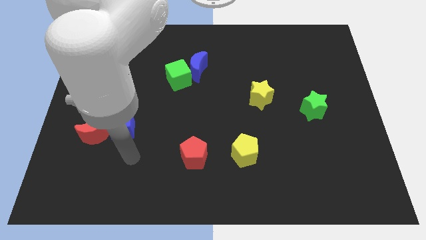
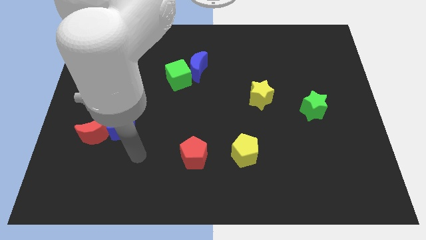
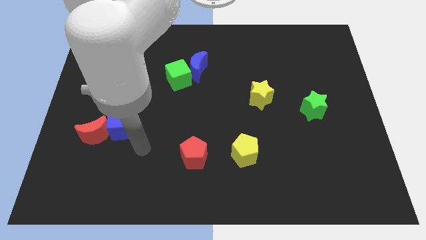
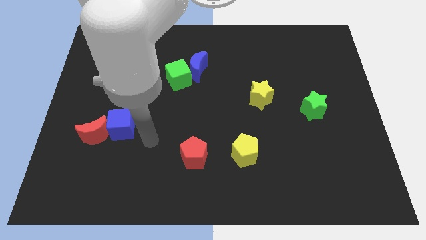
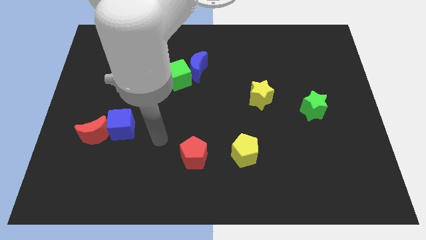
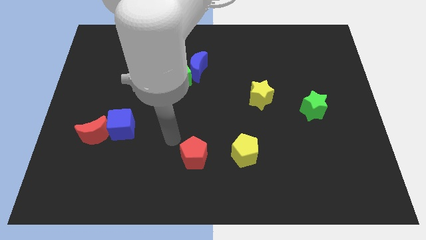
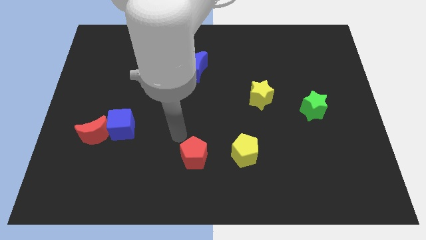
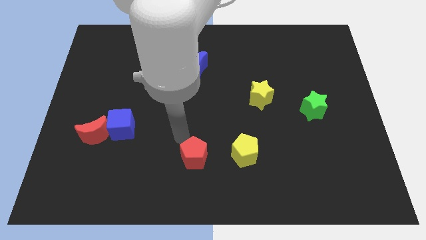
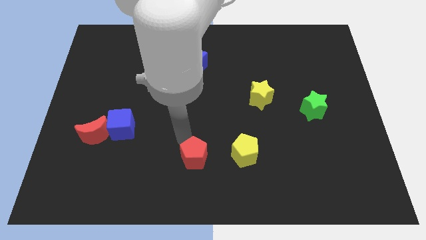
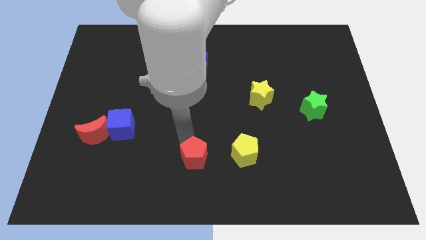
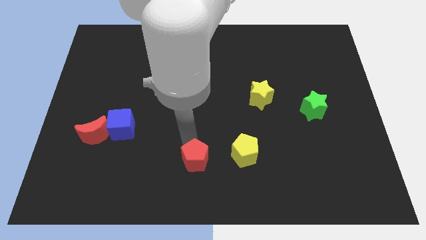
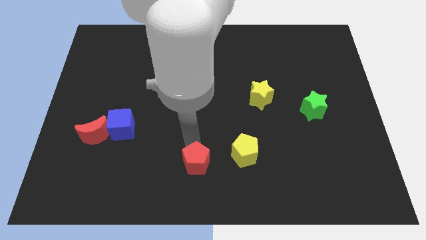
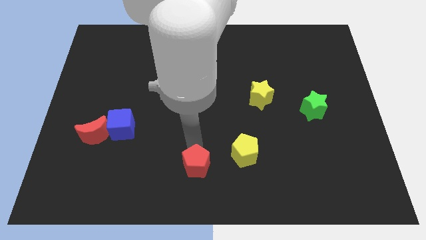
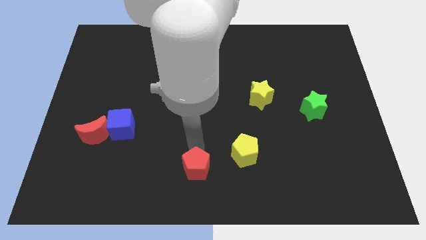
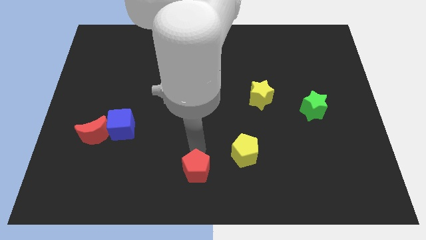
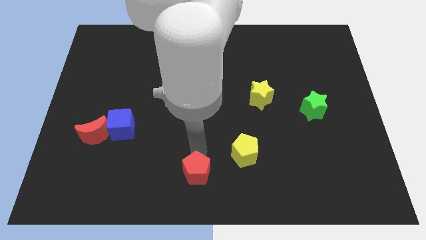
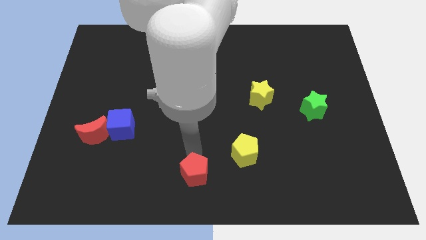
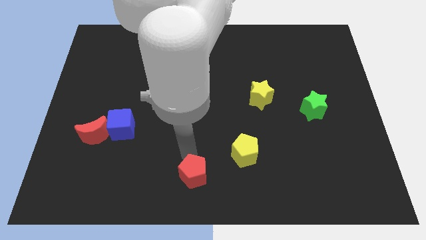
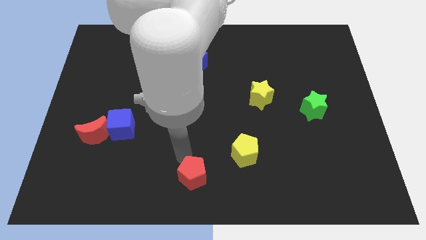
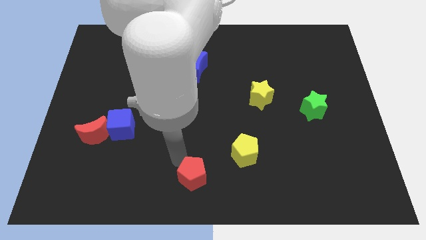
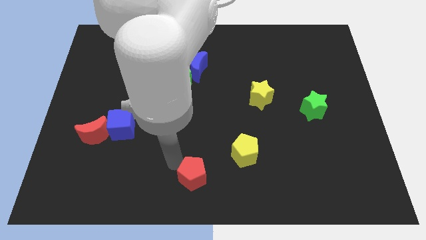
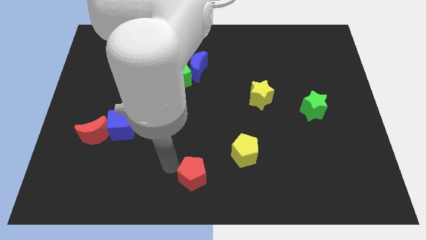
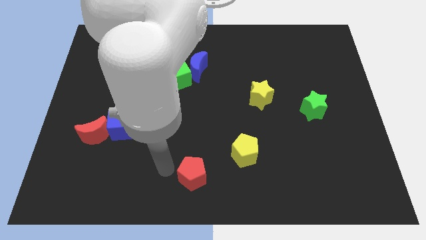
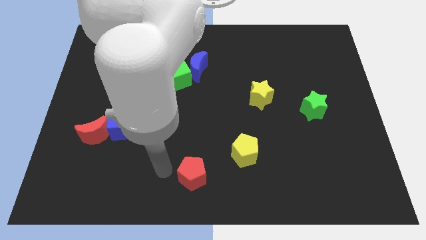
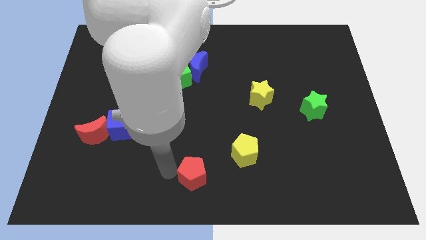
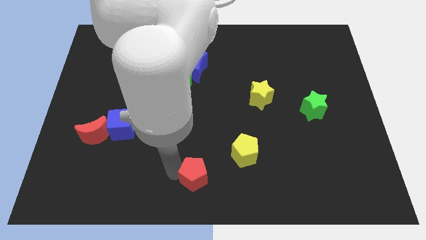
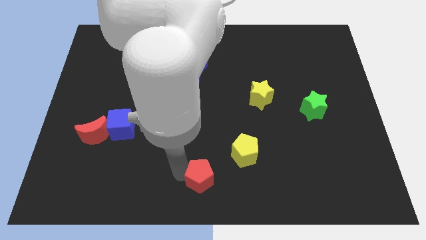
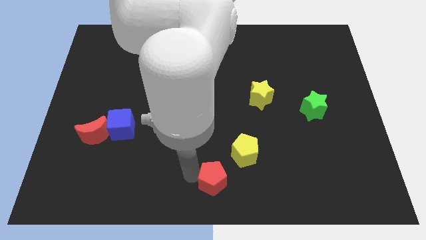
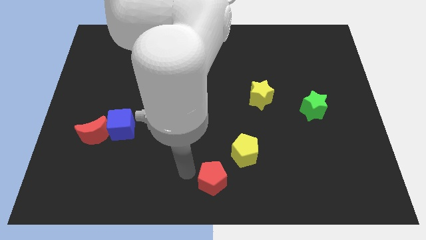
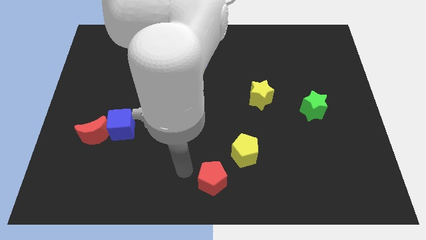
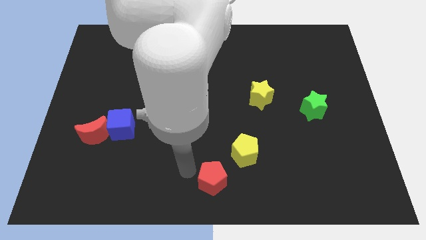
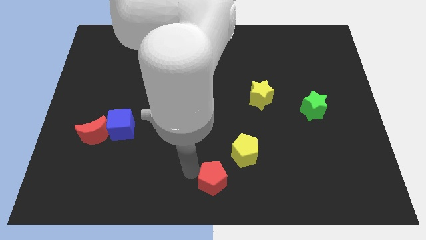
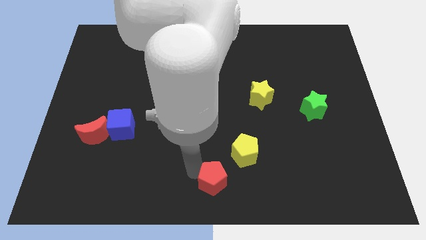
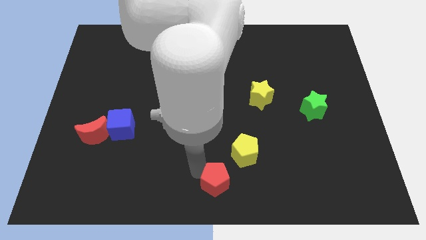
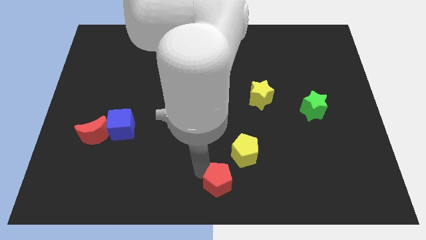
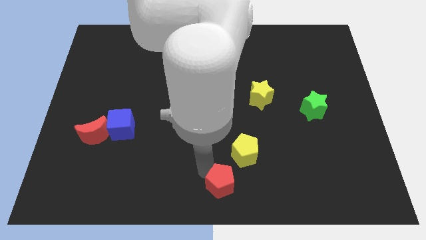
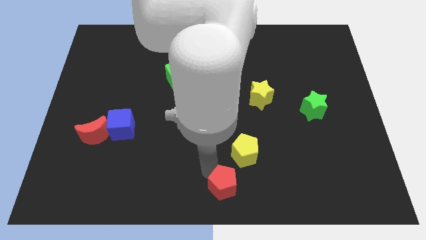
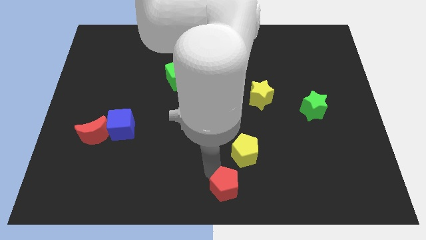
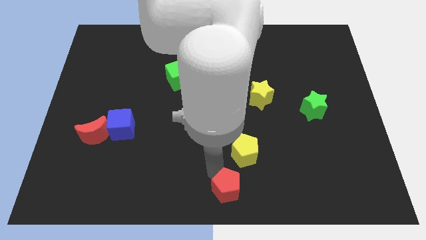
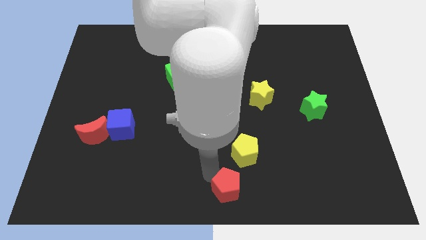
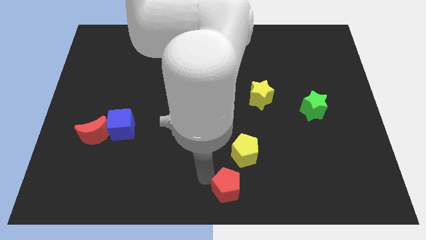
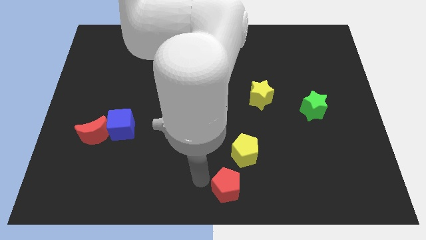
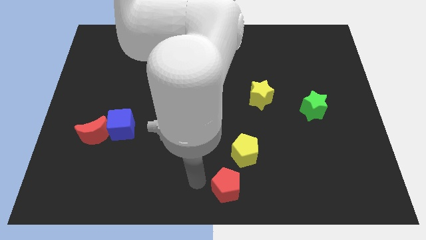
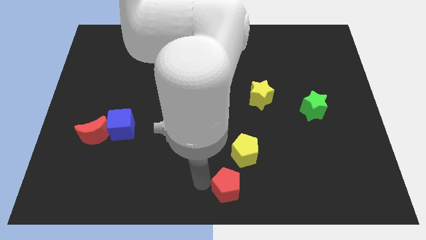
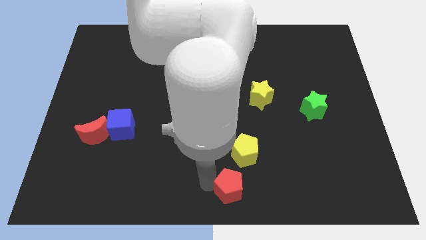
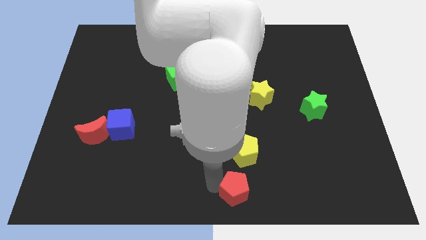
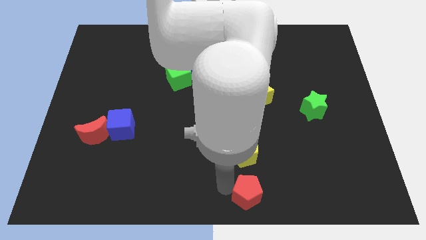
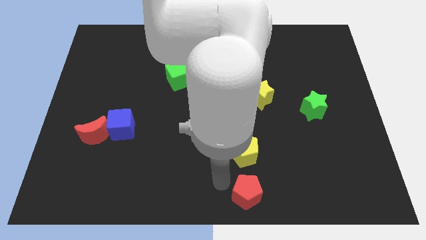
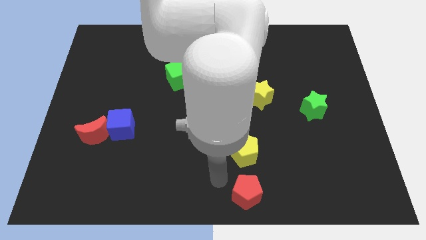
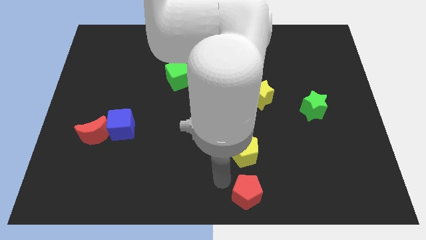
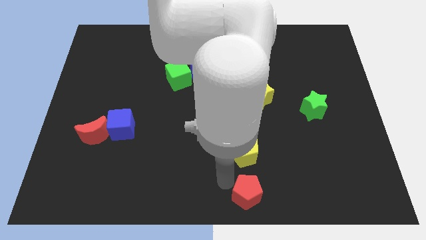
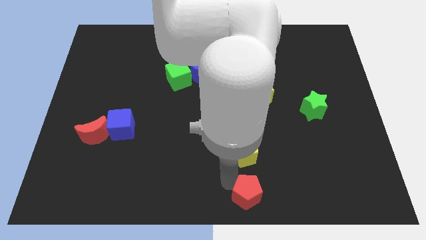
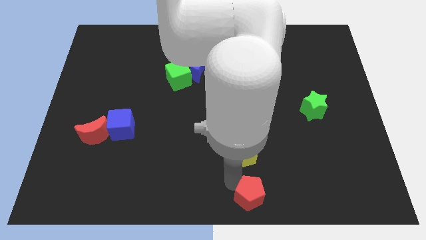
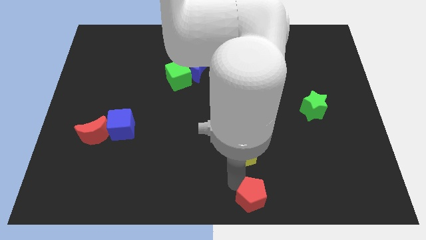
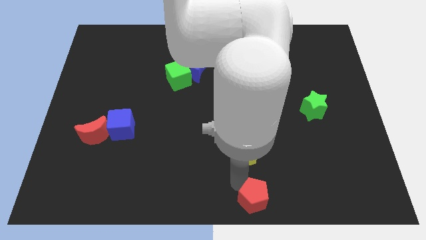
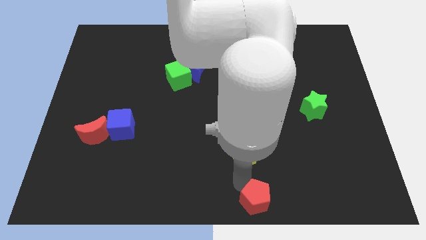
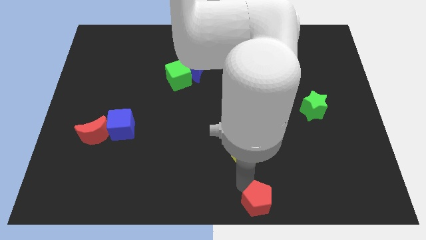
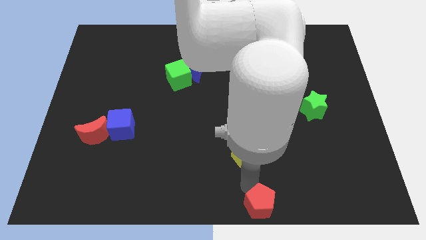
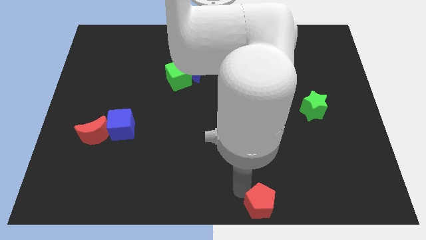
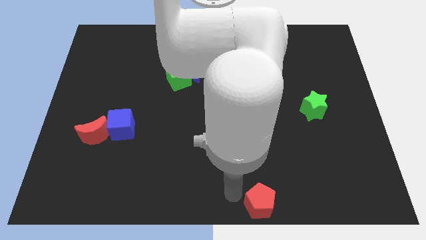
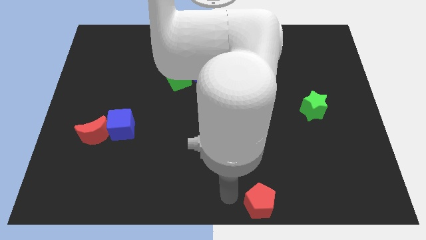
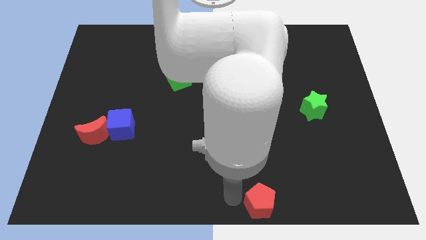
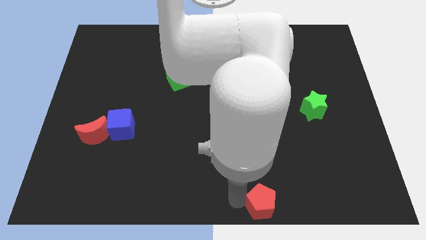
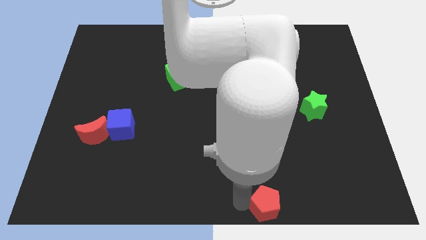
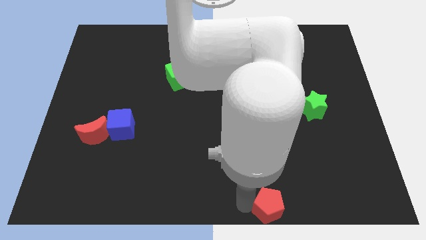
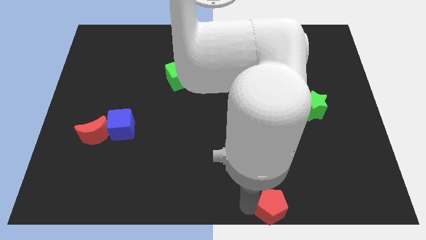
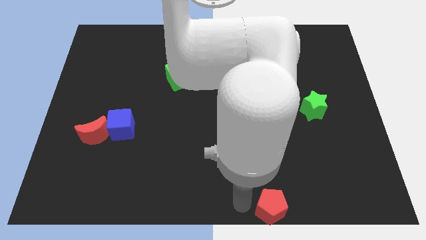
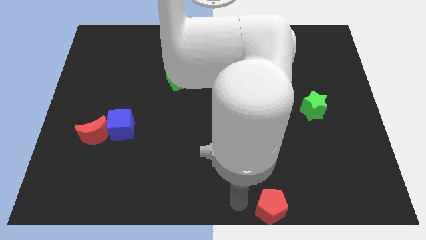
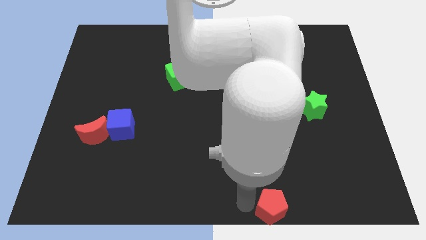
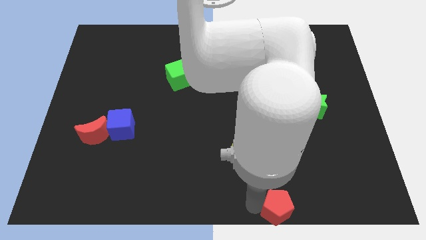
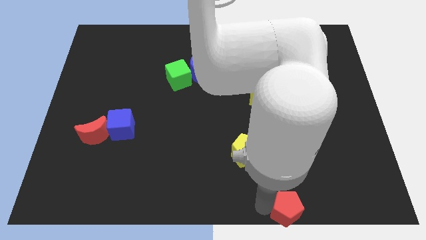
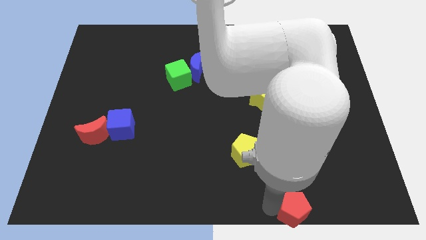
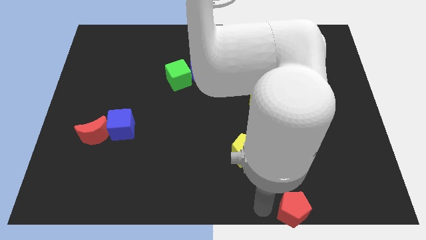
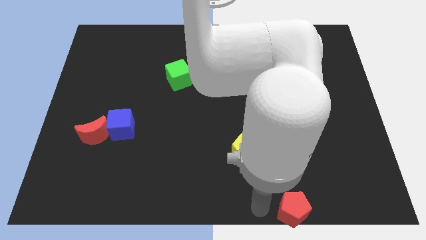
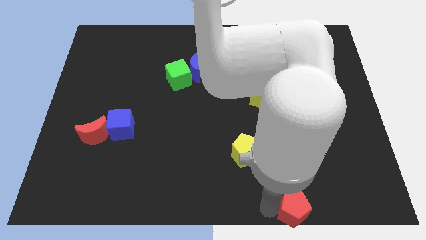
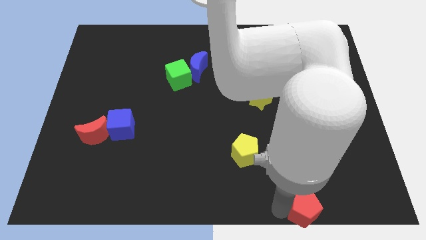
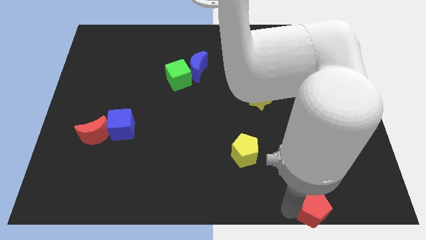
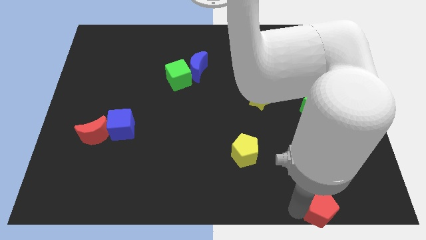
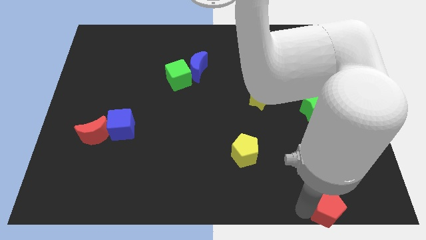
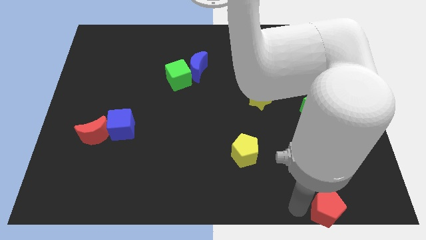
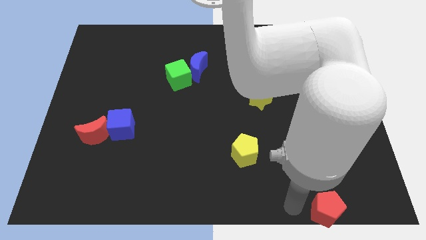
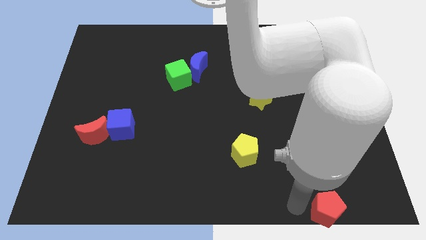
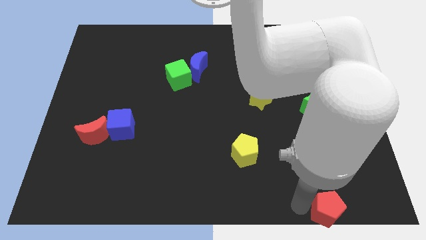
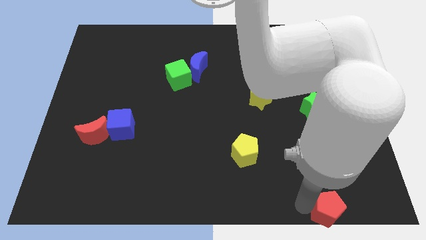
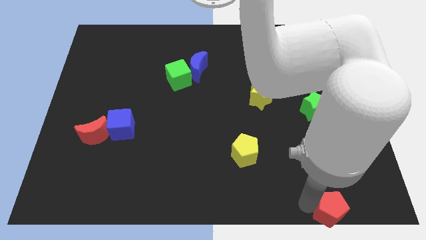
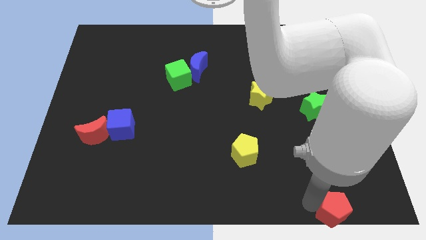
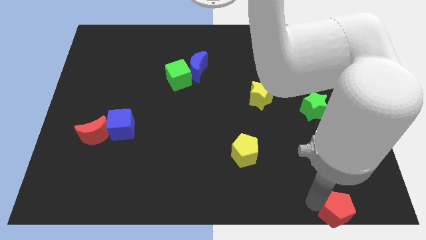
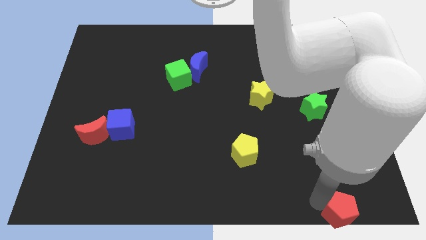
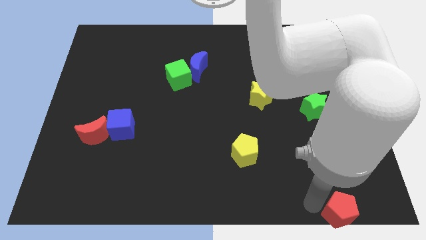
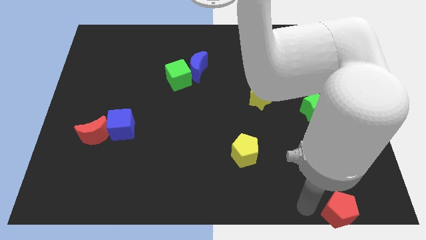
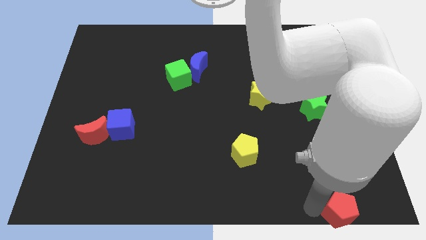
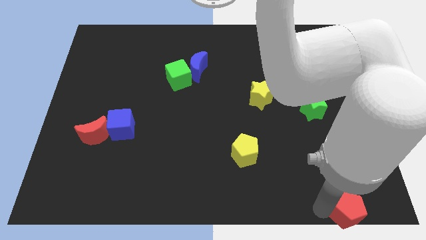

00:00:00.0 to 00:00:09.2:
put the red pentagon to the bottom right corner
